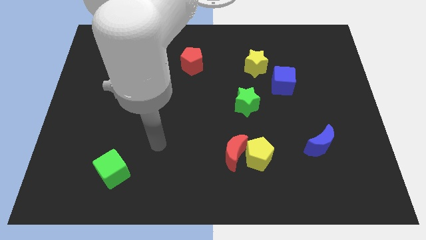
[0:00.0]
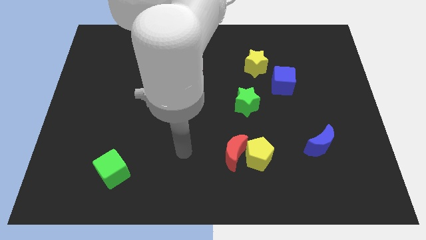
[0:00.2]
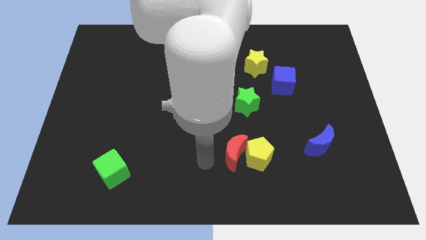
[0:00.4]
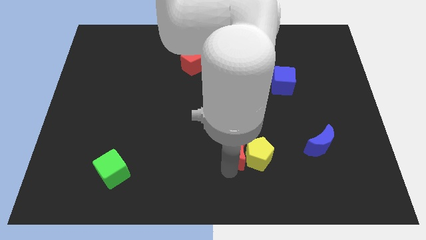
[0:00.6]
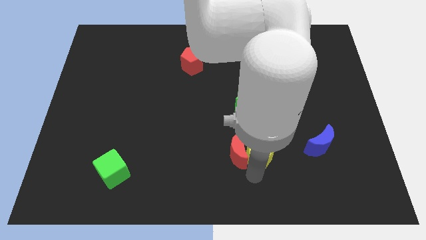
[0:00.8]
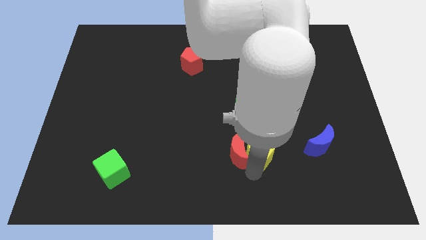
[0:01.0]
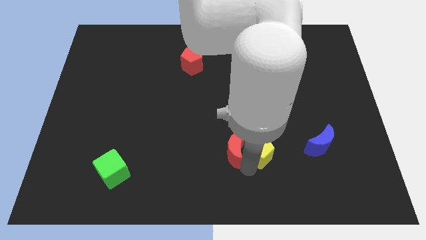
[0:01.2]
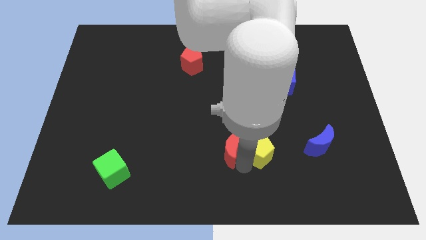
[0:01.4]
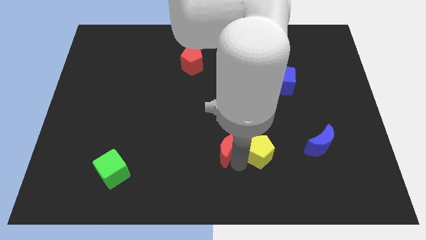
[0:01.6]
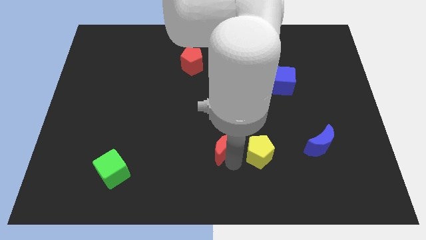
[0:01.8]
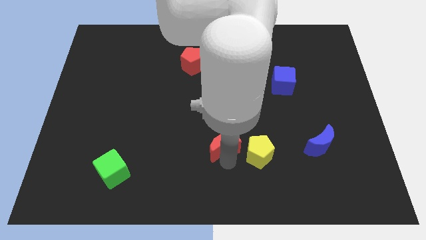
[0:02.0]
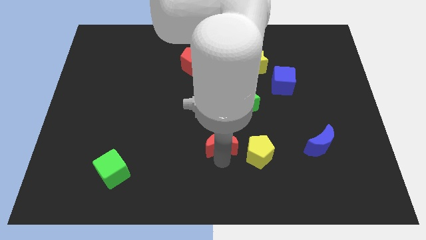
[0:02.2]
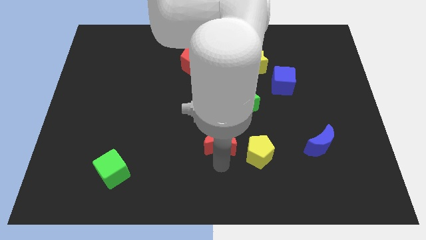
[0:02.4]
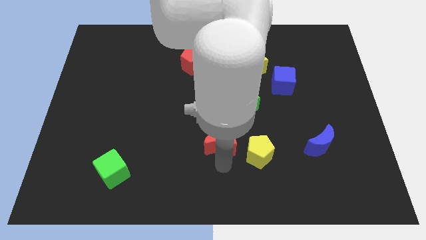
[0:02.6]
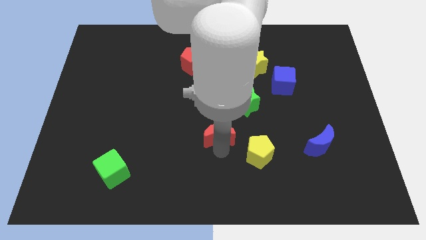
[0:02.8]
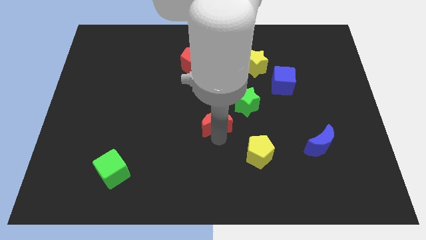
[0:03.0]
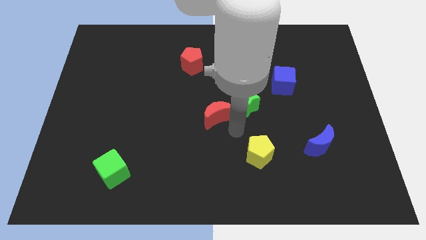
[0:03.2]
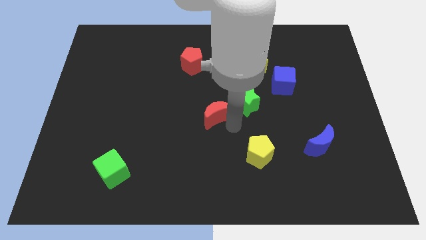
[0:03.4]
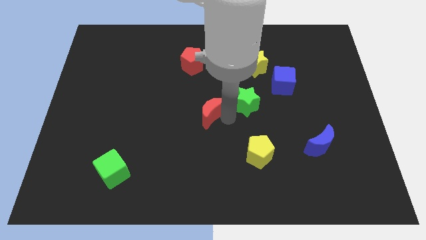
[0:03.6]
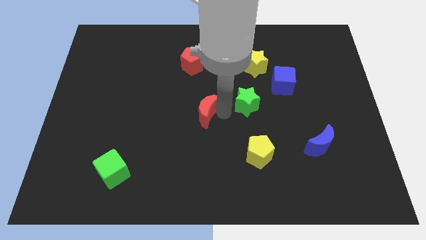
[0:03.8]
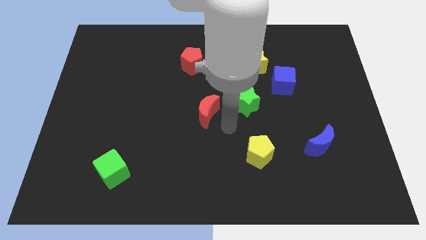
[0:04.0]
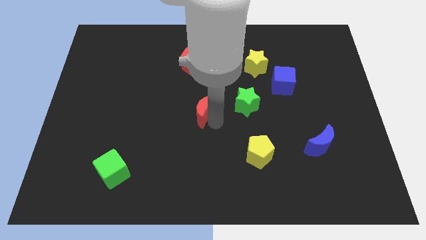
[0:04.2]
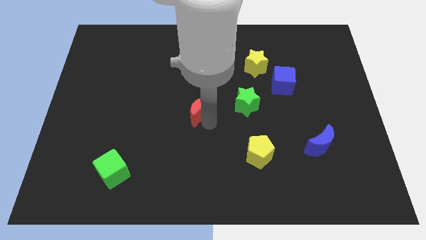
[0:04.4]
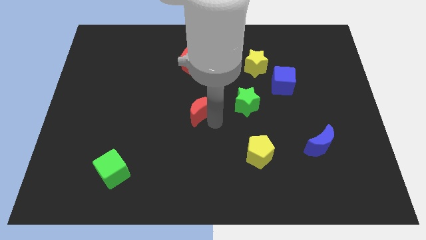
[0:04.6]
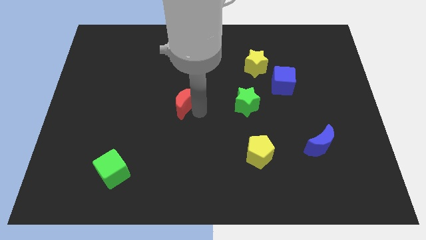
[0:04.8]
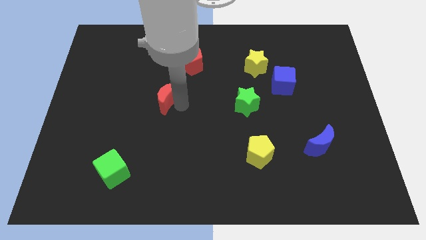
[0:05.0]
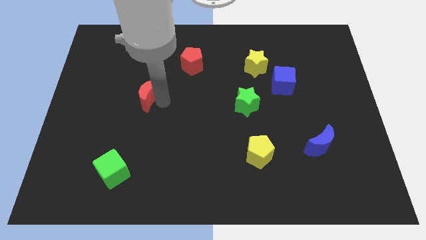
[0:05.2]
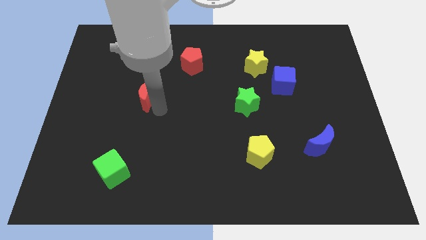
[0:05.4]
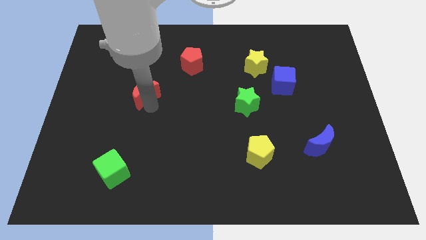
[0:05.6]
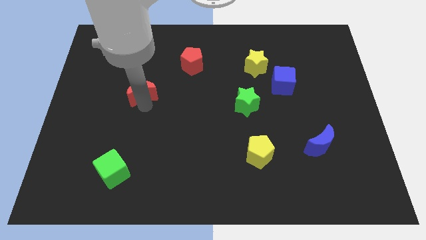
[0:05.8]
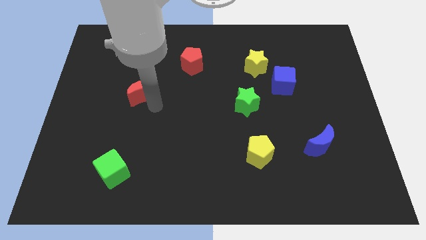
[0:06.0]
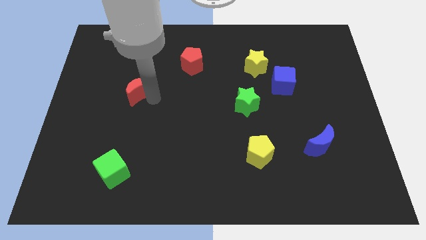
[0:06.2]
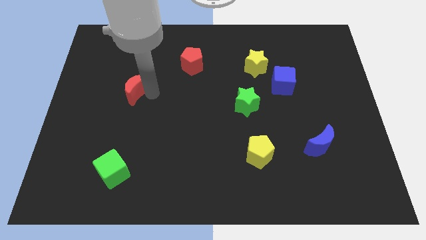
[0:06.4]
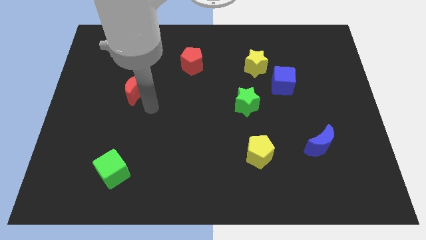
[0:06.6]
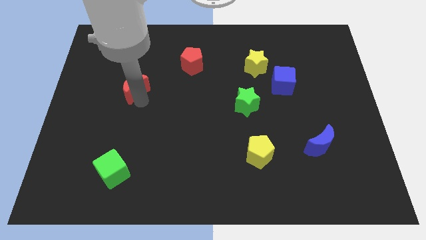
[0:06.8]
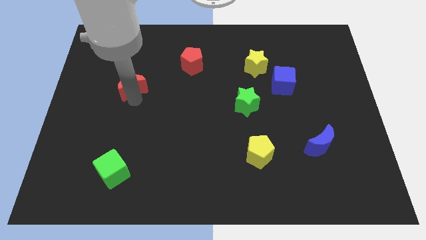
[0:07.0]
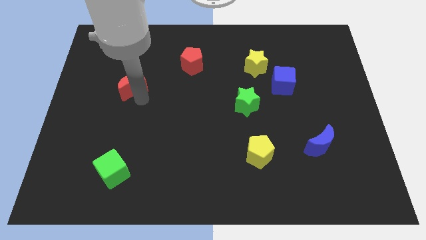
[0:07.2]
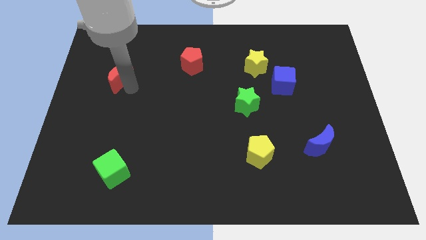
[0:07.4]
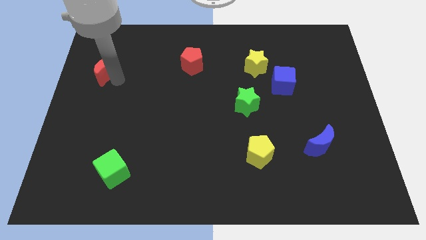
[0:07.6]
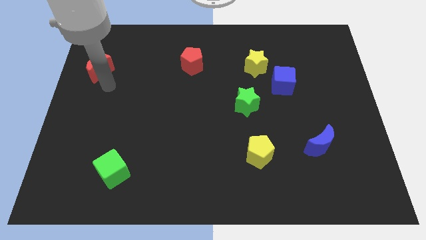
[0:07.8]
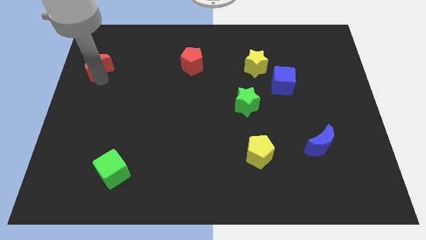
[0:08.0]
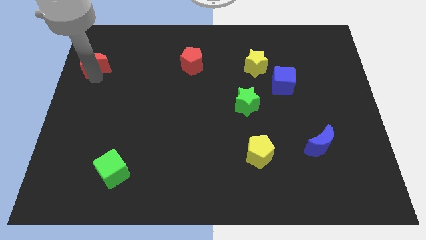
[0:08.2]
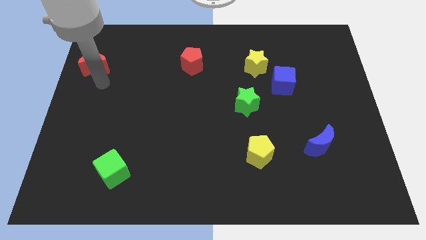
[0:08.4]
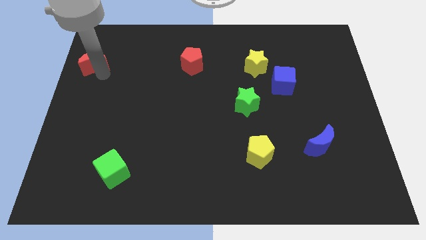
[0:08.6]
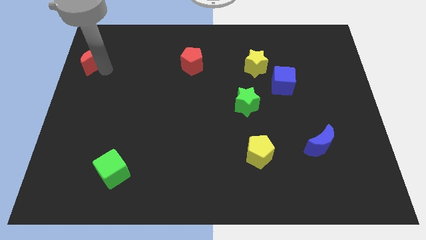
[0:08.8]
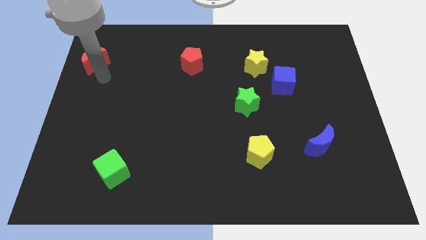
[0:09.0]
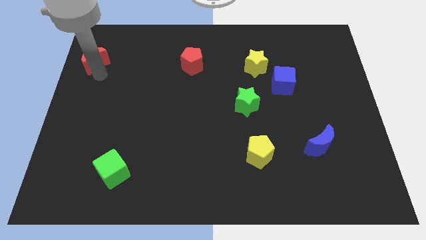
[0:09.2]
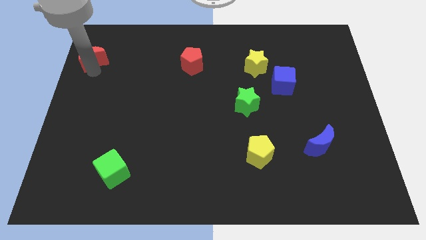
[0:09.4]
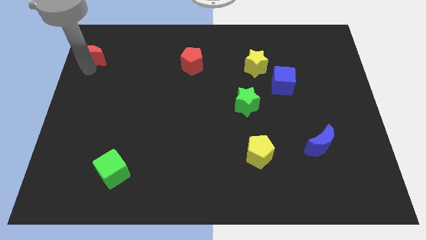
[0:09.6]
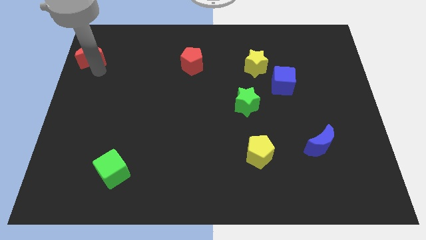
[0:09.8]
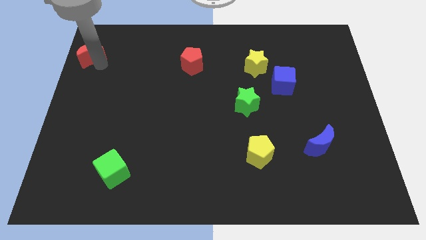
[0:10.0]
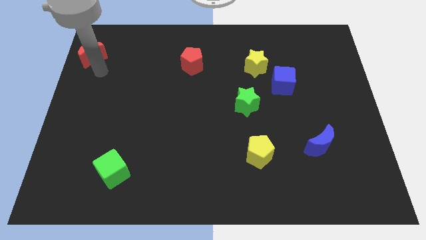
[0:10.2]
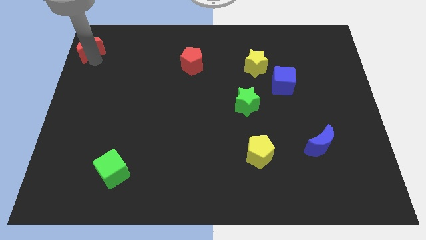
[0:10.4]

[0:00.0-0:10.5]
put the red moon to the upper left corner

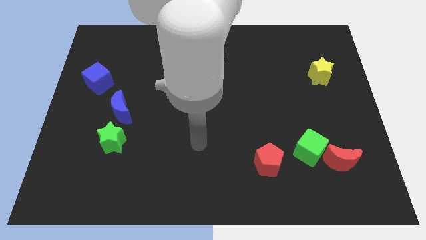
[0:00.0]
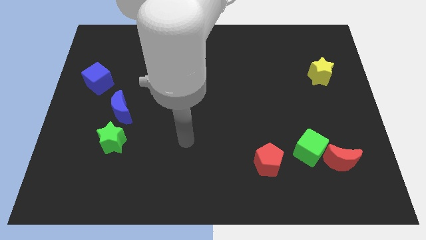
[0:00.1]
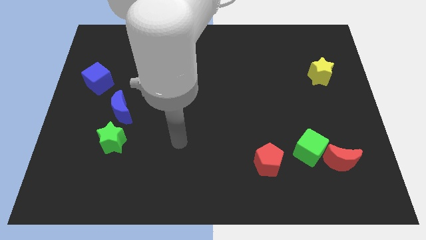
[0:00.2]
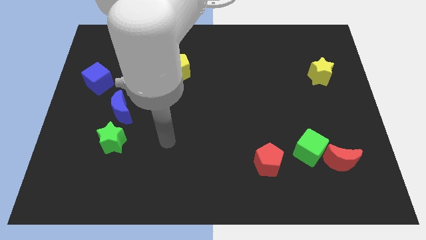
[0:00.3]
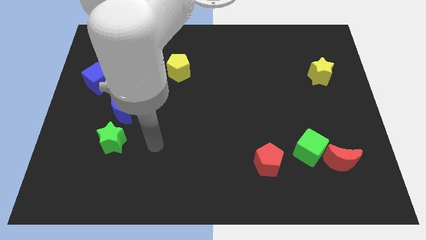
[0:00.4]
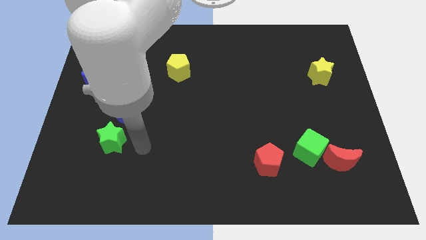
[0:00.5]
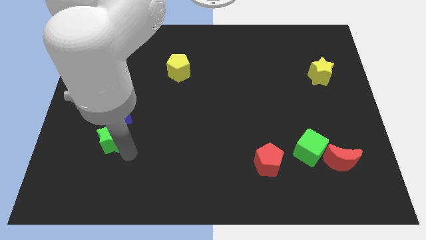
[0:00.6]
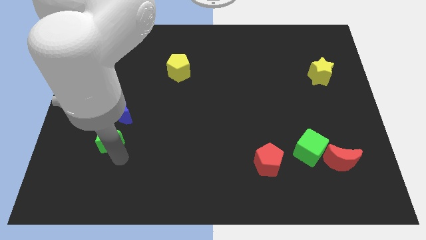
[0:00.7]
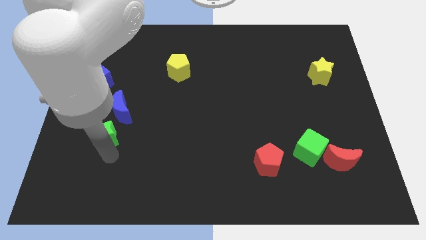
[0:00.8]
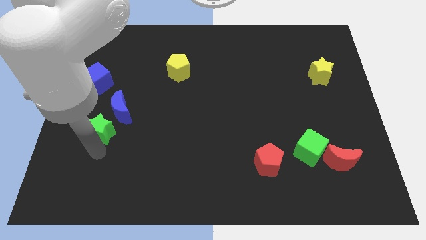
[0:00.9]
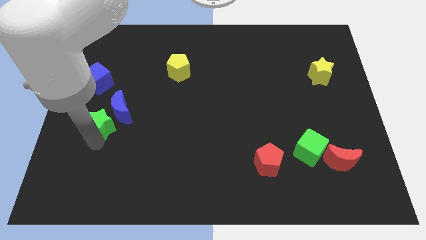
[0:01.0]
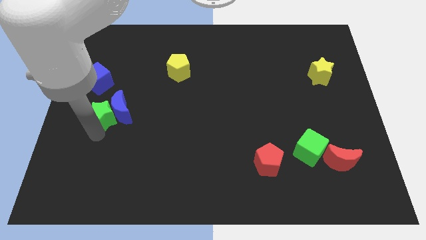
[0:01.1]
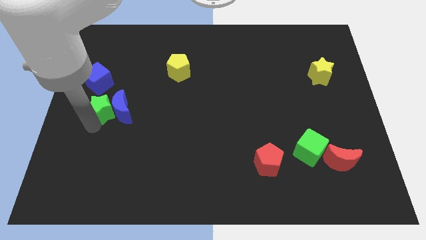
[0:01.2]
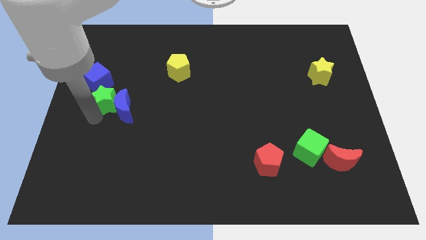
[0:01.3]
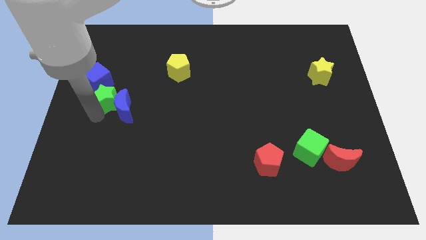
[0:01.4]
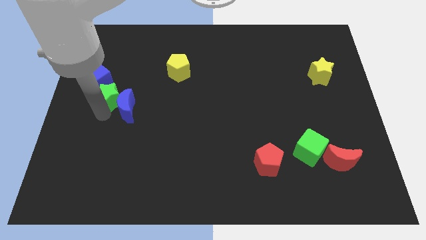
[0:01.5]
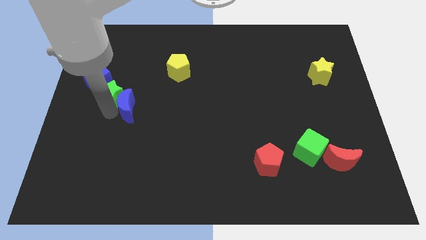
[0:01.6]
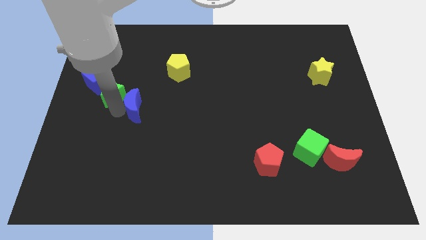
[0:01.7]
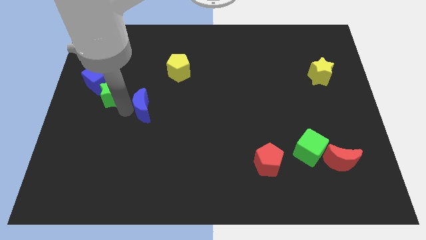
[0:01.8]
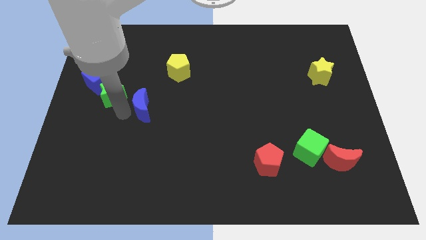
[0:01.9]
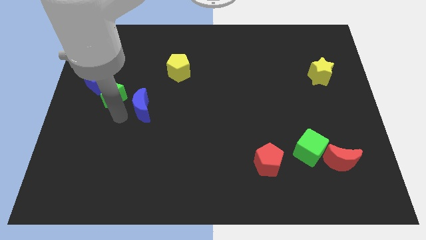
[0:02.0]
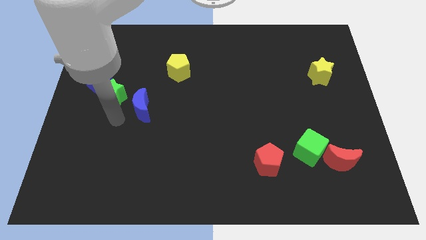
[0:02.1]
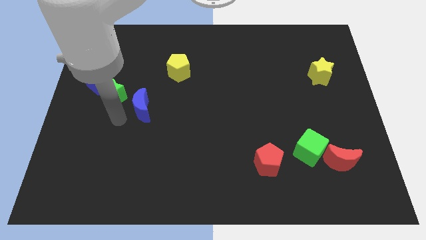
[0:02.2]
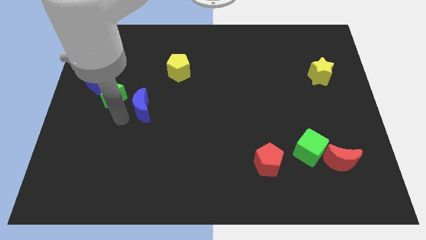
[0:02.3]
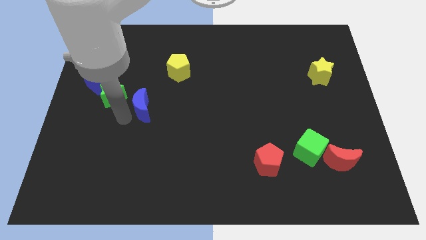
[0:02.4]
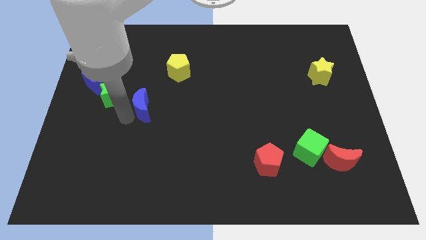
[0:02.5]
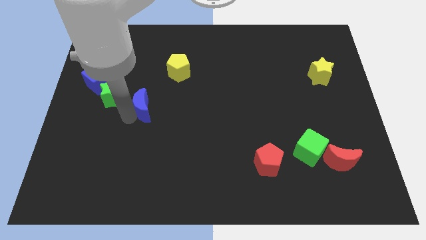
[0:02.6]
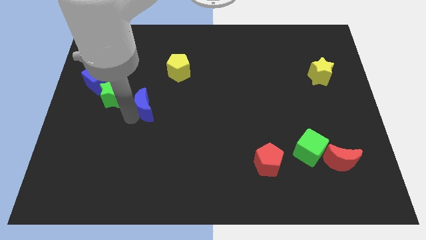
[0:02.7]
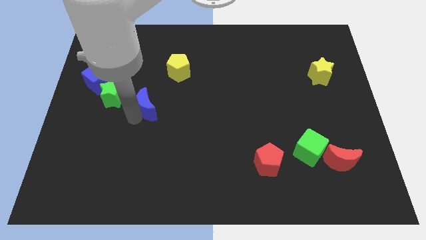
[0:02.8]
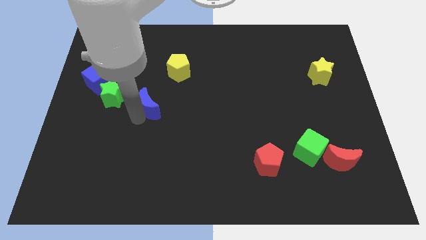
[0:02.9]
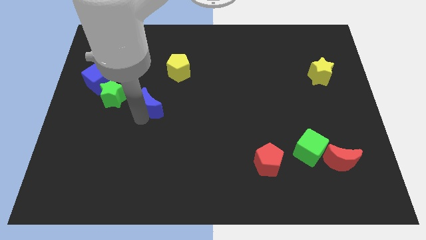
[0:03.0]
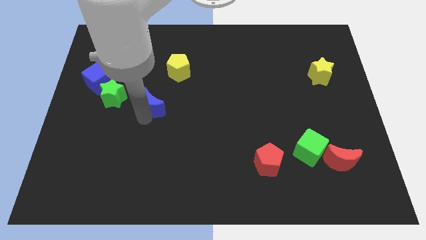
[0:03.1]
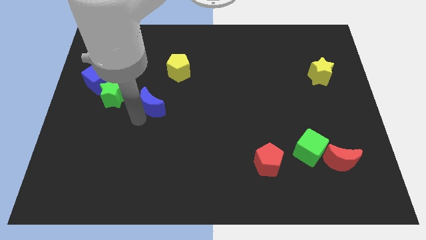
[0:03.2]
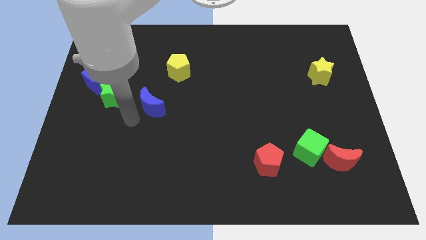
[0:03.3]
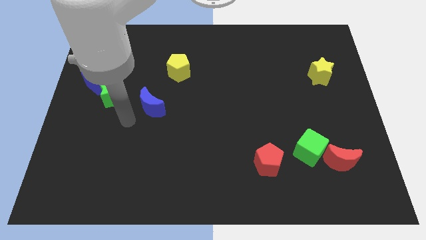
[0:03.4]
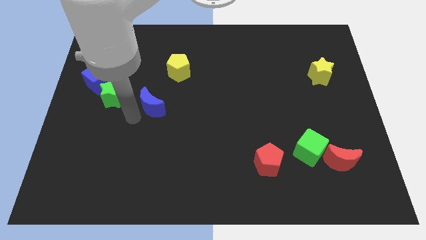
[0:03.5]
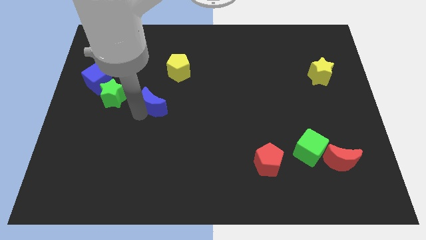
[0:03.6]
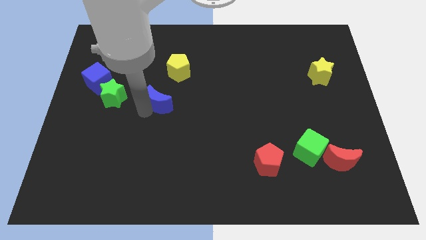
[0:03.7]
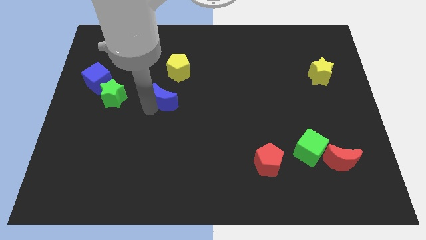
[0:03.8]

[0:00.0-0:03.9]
put the blue moon to the middle
